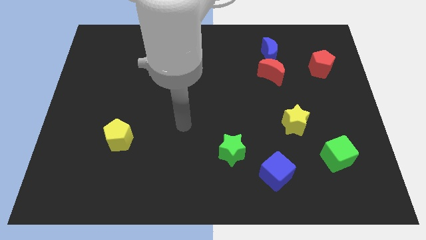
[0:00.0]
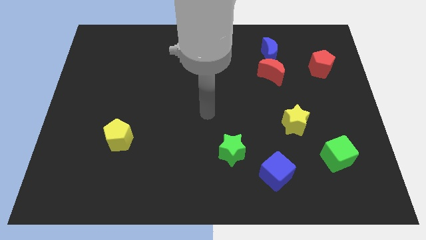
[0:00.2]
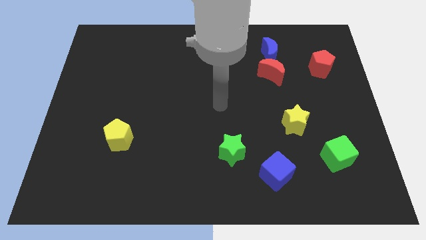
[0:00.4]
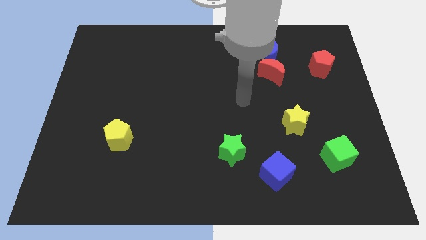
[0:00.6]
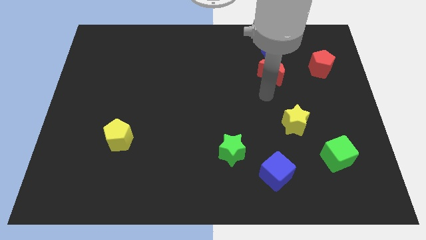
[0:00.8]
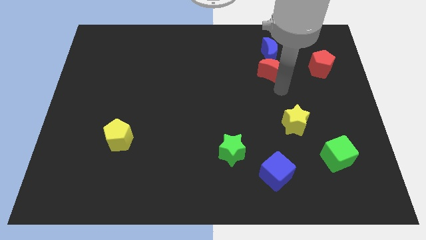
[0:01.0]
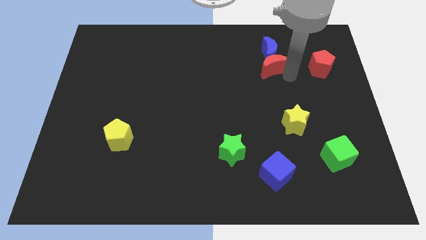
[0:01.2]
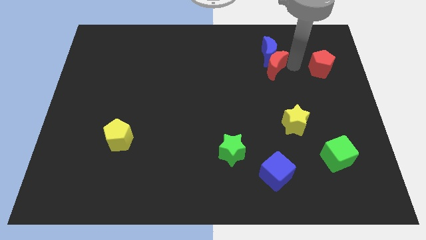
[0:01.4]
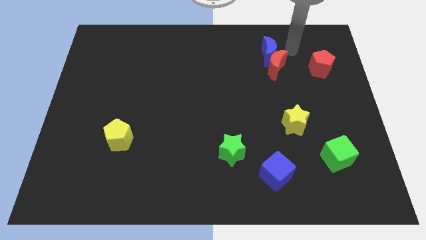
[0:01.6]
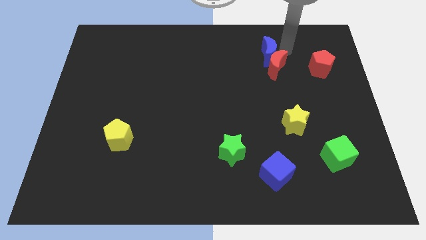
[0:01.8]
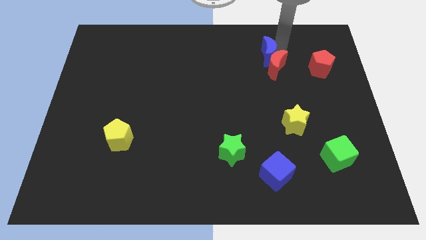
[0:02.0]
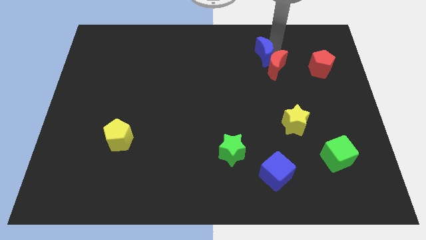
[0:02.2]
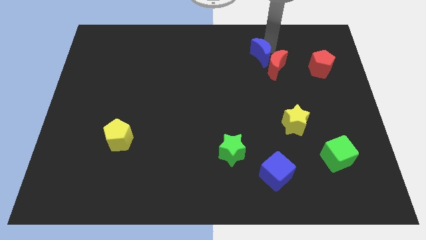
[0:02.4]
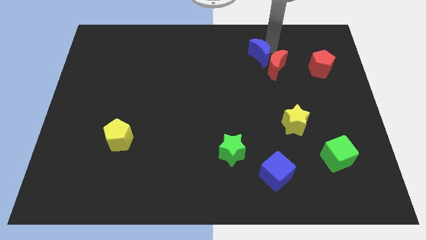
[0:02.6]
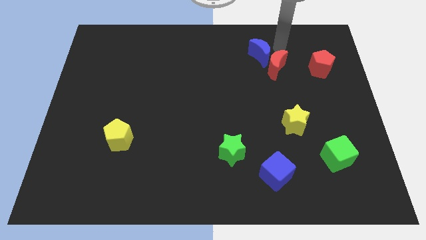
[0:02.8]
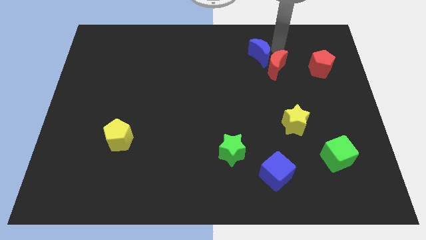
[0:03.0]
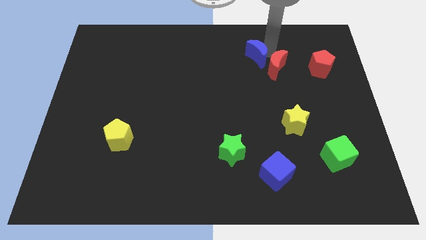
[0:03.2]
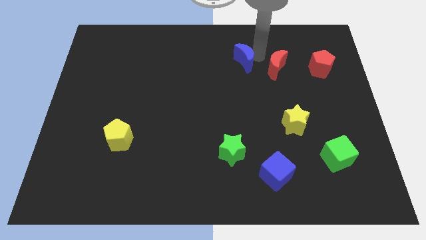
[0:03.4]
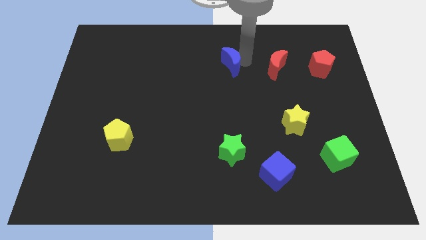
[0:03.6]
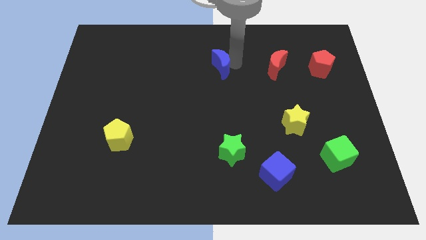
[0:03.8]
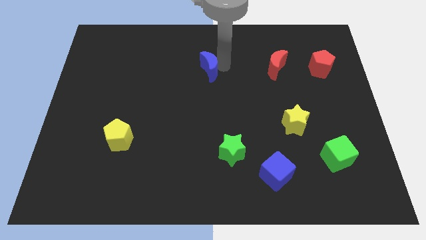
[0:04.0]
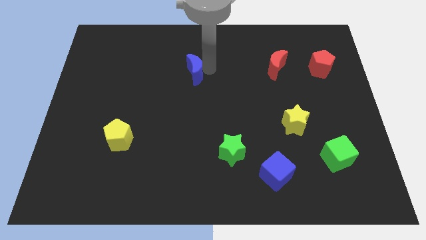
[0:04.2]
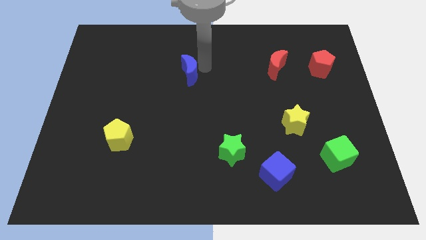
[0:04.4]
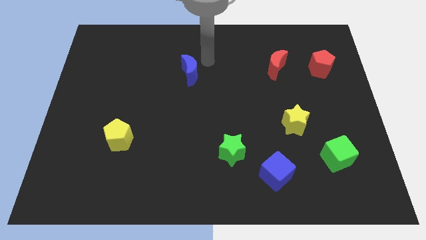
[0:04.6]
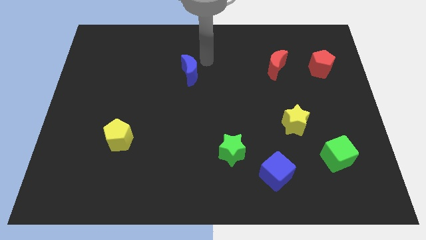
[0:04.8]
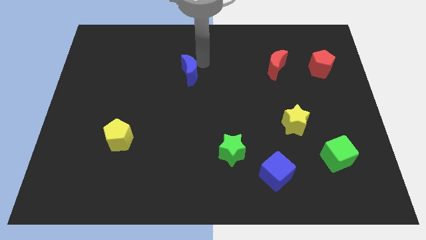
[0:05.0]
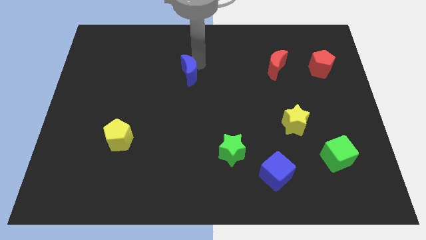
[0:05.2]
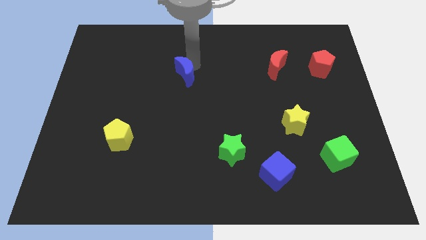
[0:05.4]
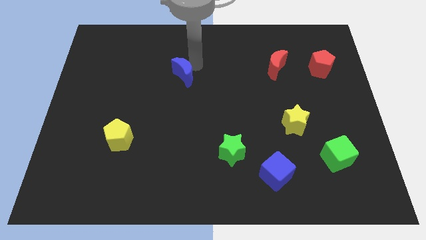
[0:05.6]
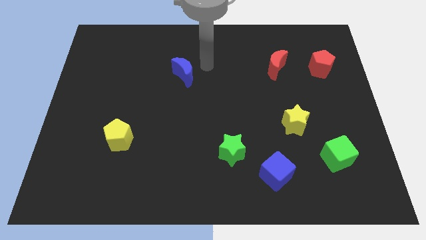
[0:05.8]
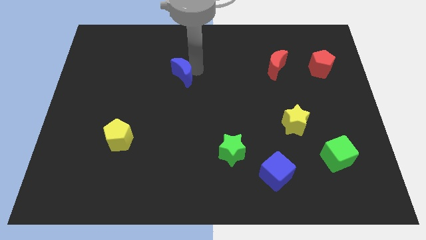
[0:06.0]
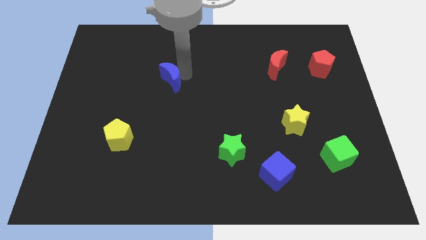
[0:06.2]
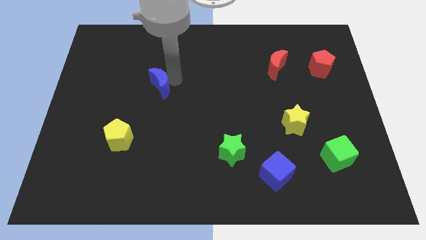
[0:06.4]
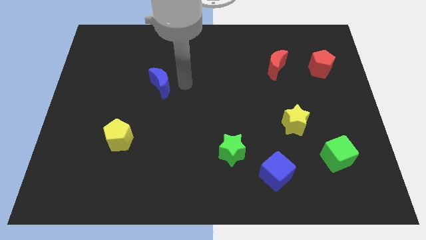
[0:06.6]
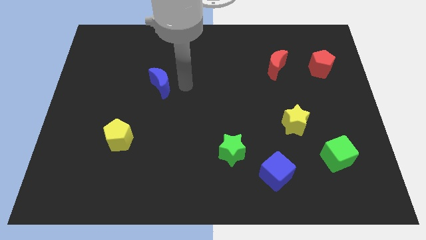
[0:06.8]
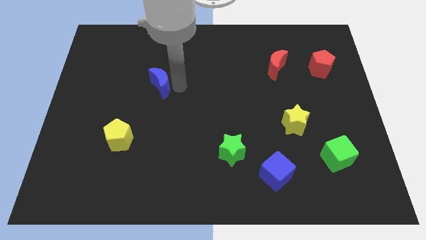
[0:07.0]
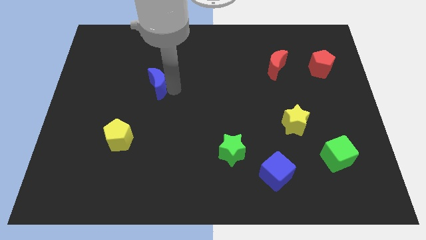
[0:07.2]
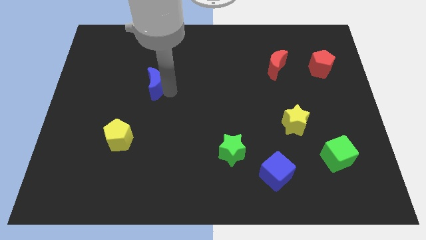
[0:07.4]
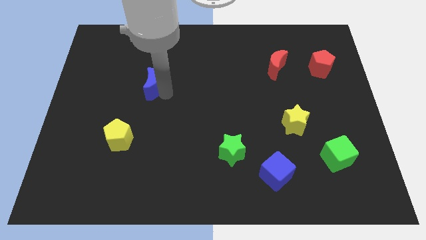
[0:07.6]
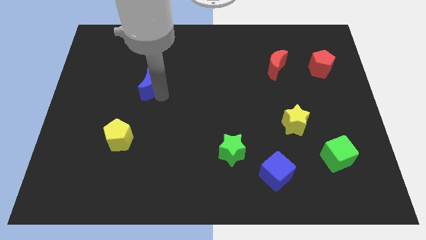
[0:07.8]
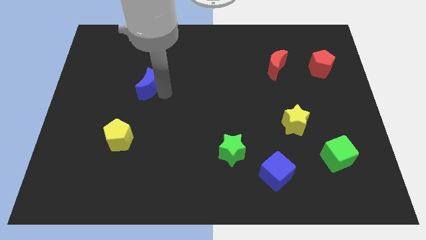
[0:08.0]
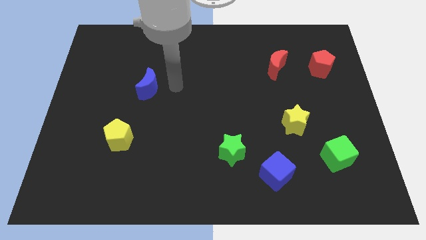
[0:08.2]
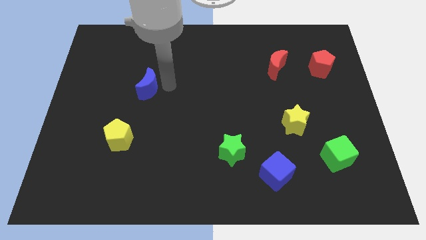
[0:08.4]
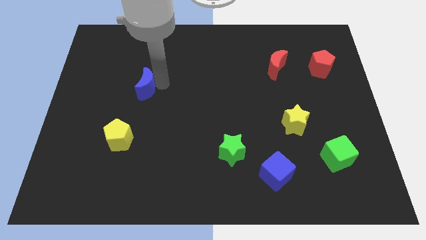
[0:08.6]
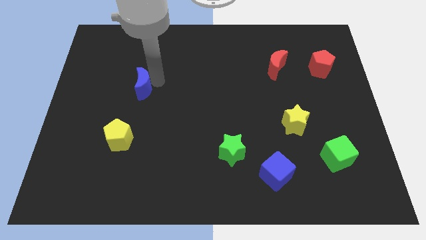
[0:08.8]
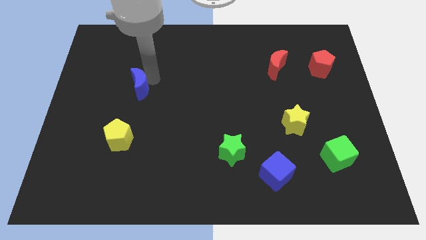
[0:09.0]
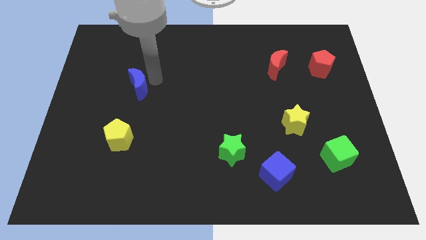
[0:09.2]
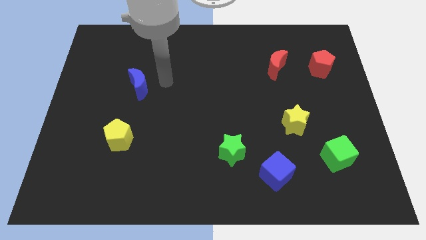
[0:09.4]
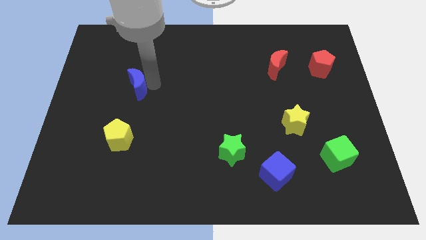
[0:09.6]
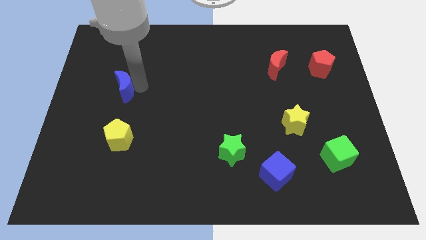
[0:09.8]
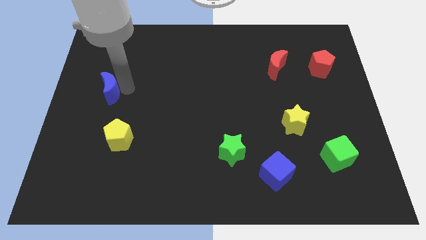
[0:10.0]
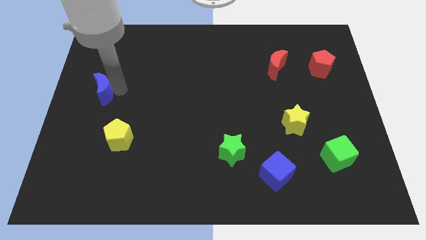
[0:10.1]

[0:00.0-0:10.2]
put the blue moon to the left side of the board
